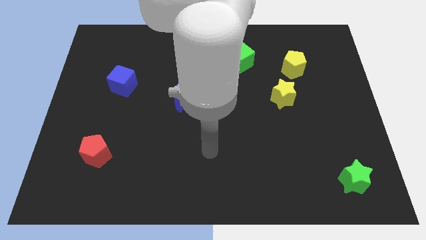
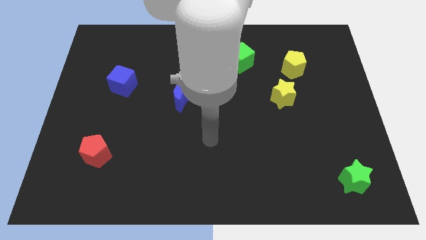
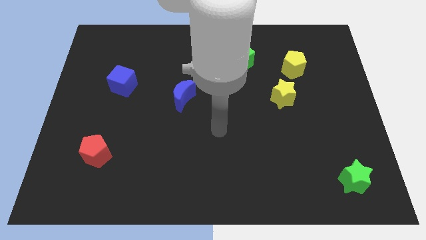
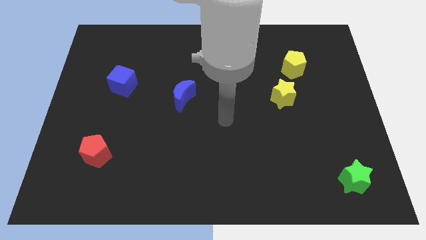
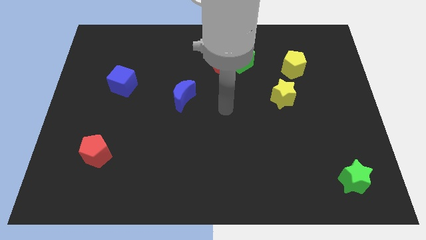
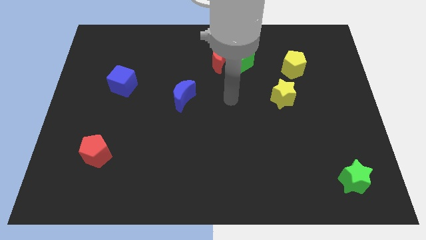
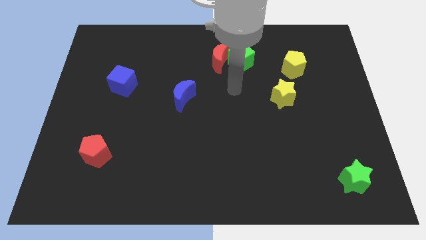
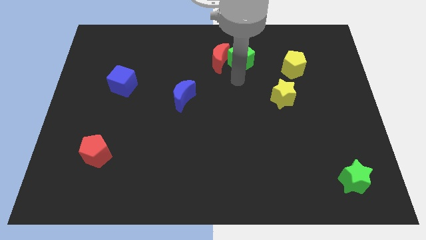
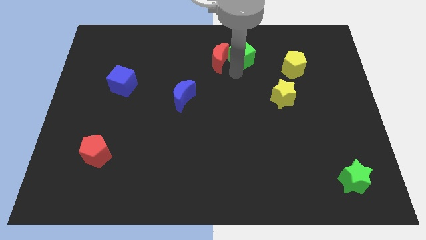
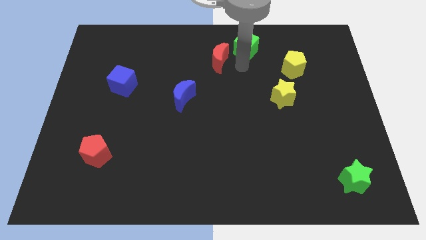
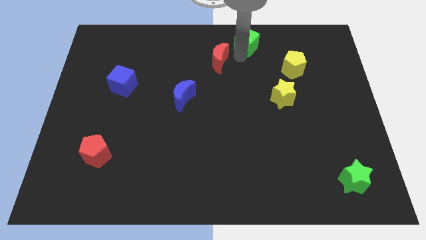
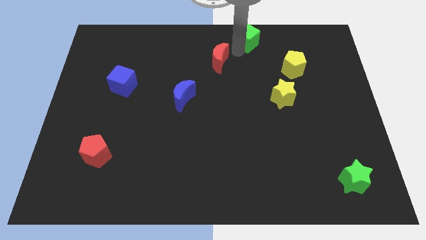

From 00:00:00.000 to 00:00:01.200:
pull the red moon apart from the green cube

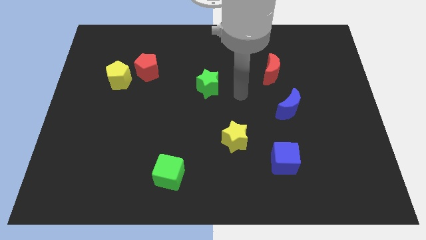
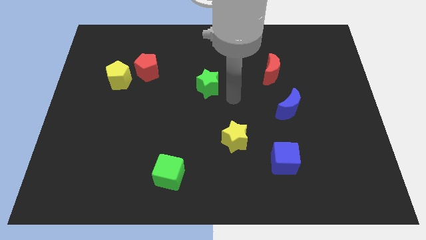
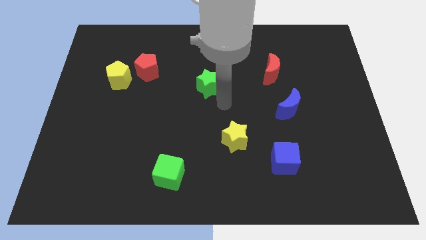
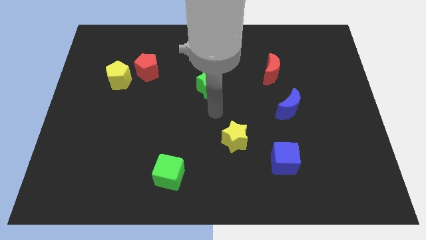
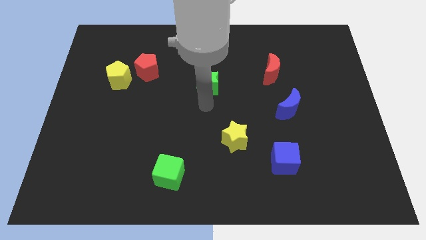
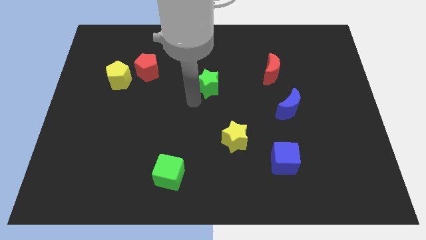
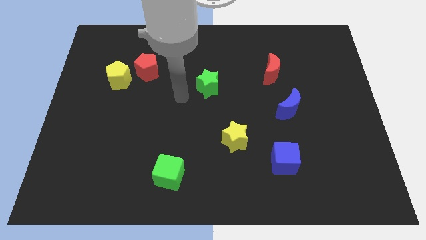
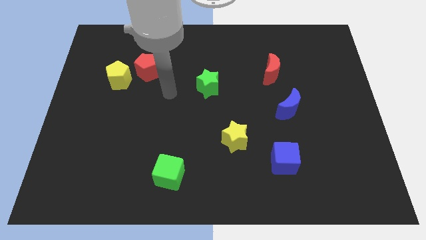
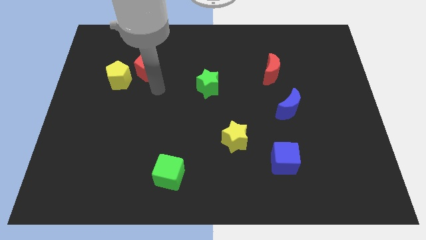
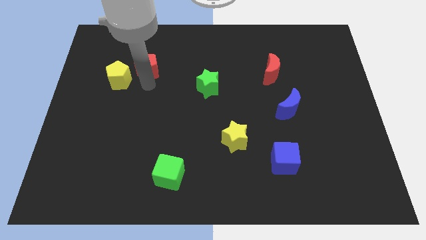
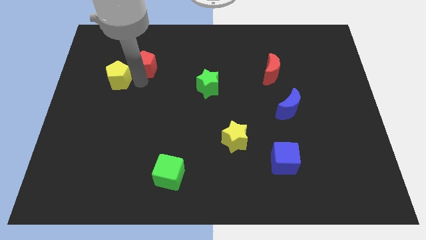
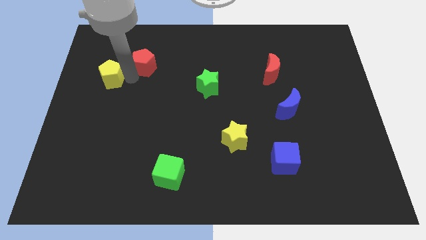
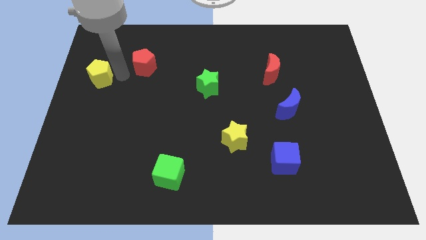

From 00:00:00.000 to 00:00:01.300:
move the red pentagon away from the yellow pentagon

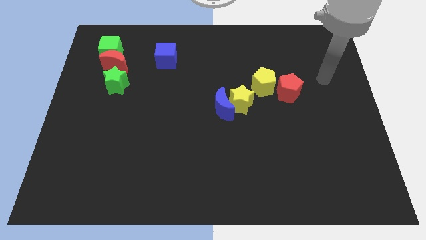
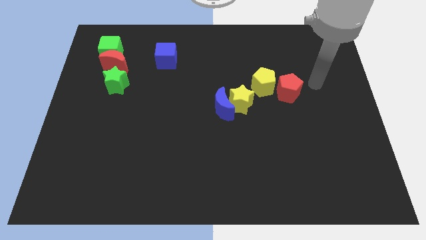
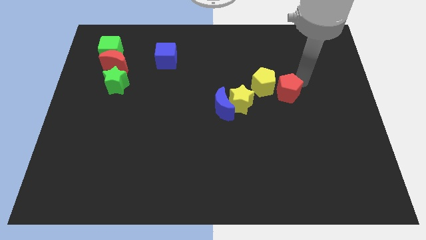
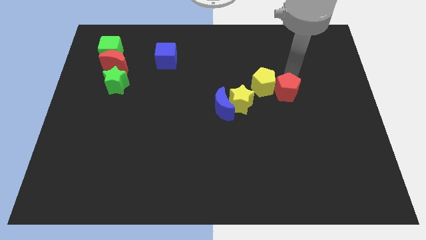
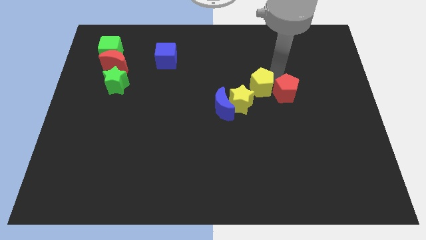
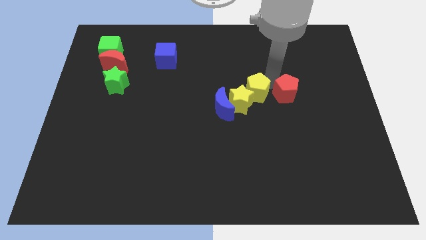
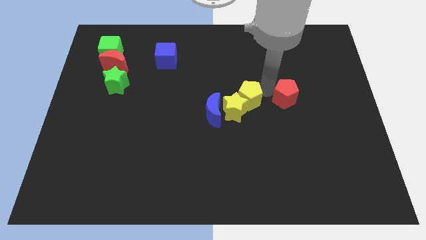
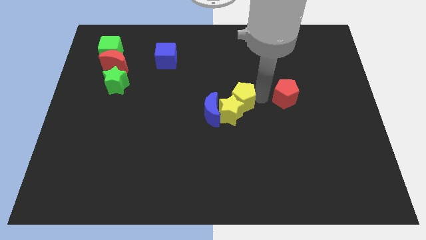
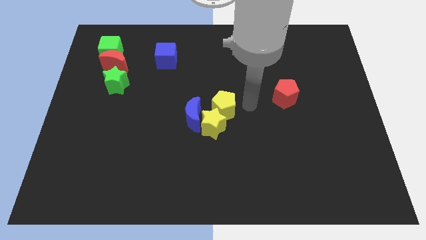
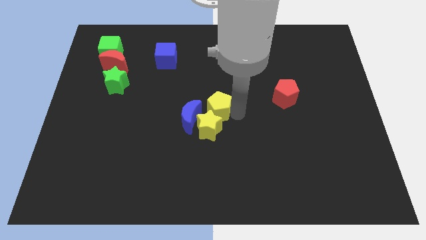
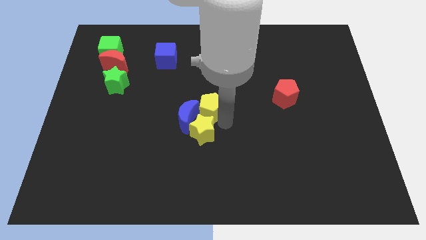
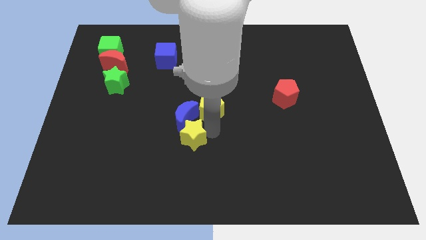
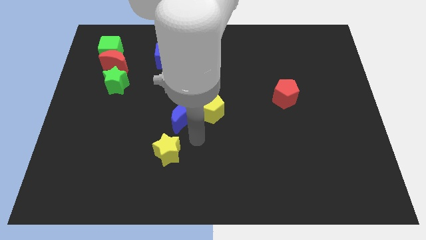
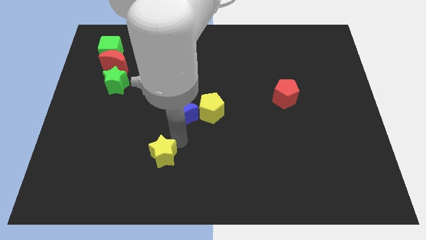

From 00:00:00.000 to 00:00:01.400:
pull the blue moon apart from the yellow star

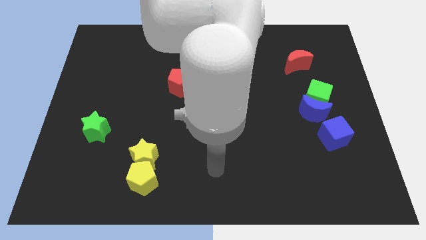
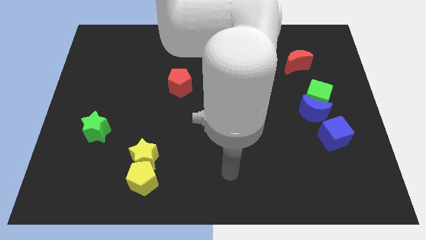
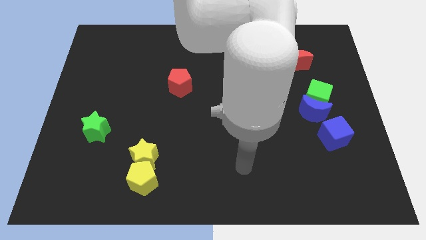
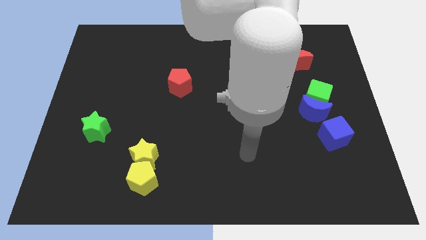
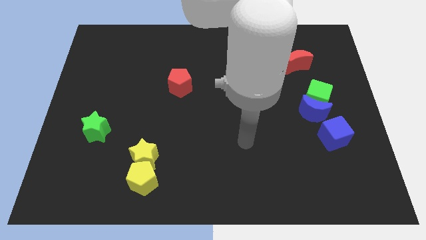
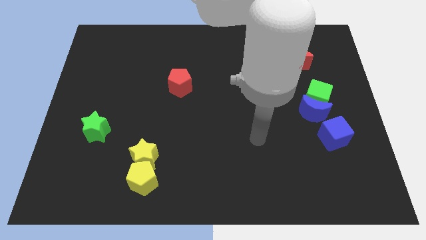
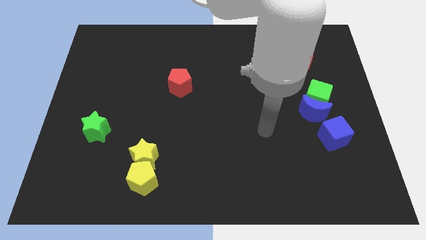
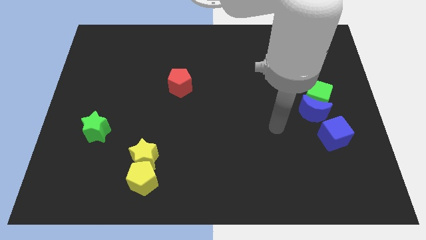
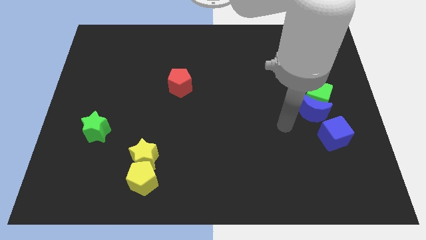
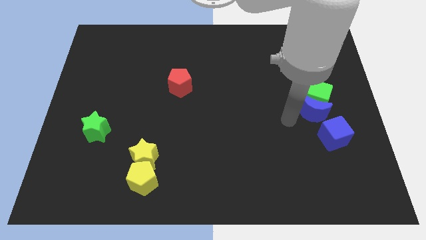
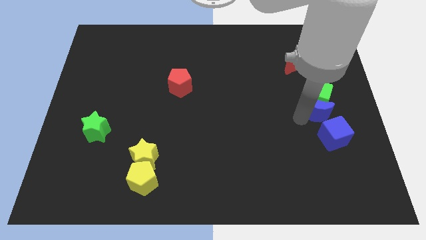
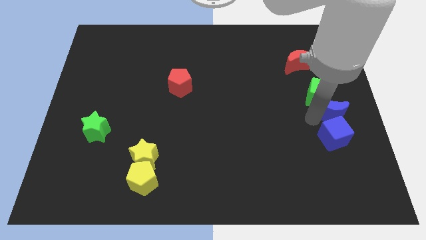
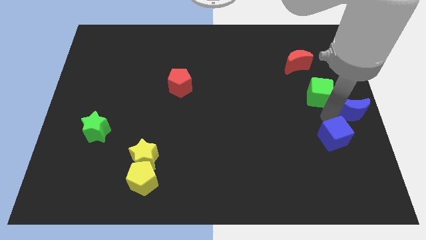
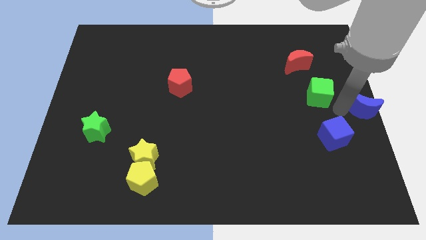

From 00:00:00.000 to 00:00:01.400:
separate the green cube from the blue moon

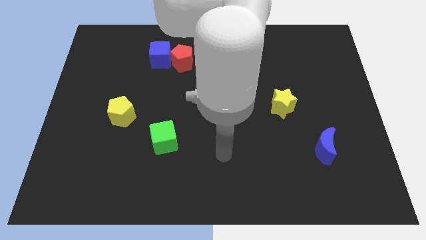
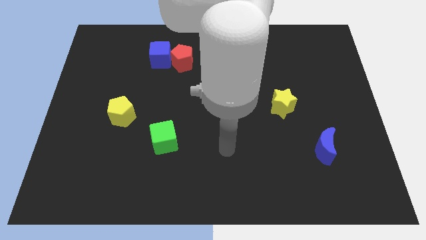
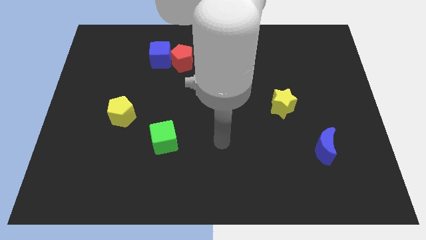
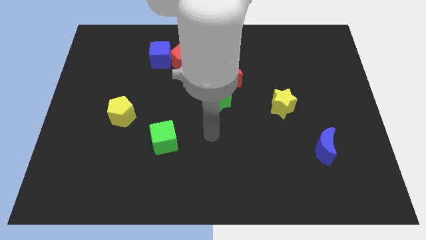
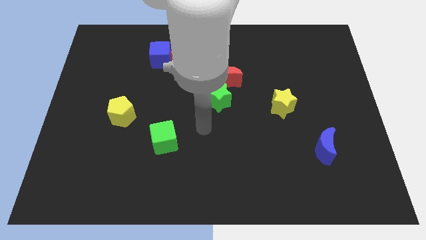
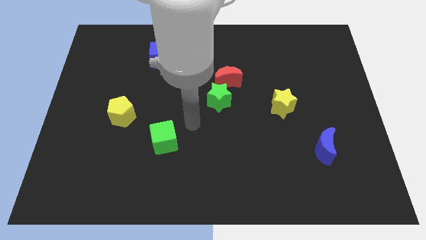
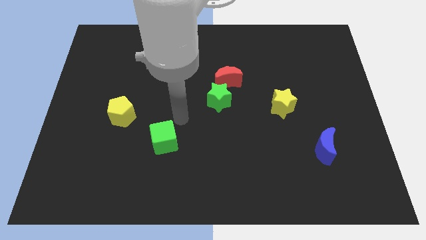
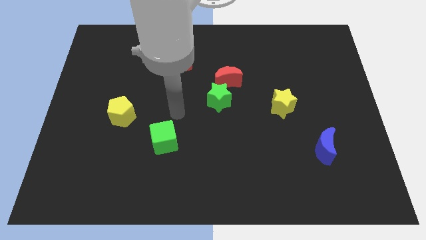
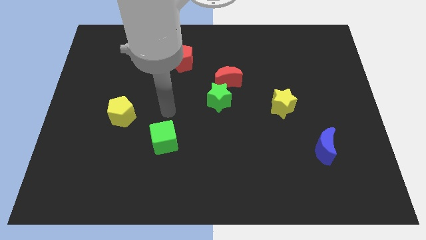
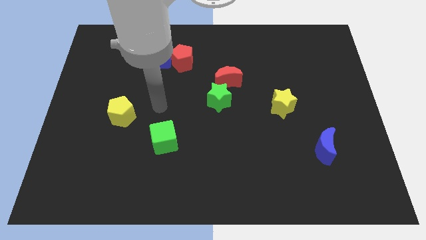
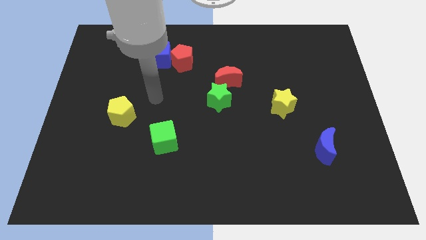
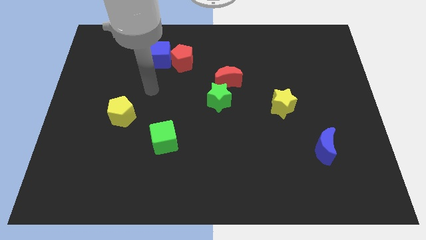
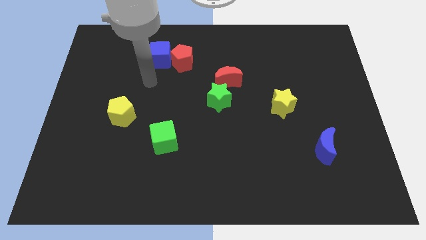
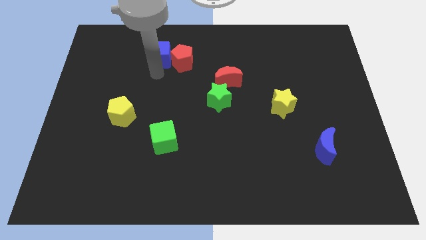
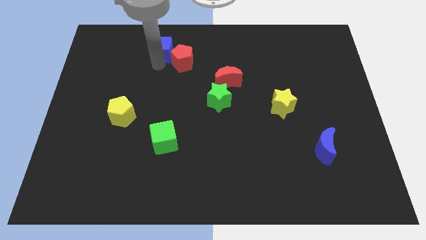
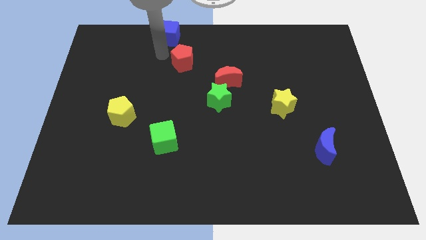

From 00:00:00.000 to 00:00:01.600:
pull the red pentagon apart from the blue cube

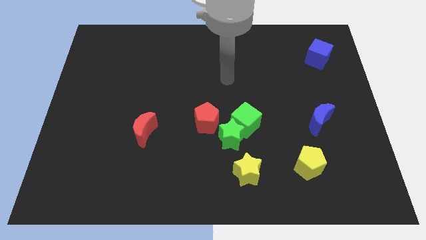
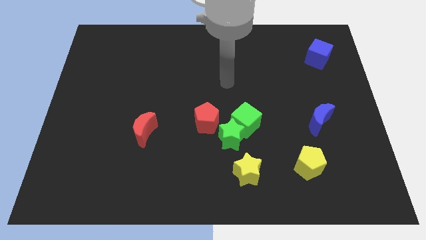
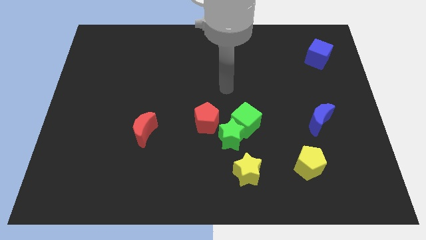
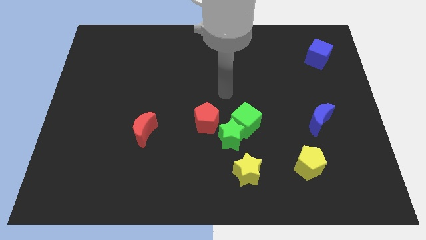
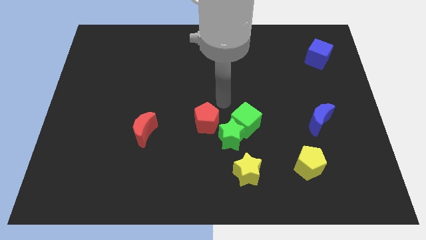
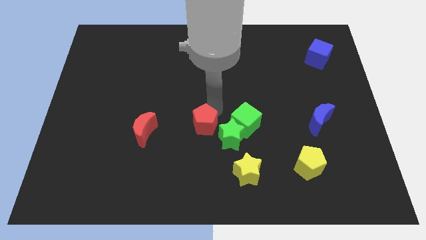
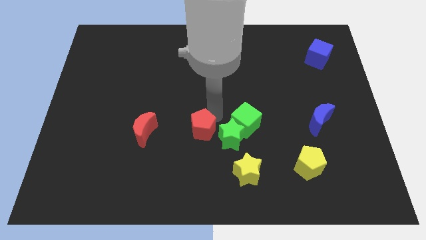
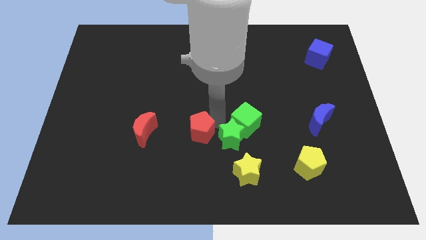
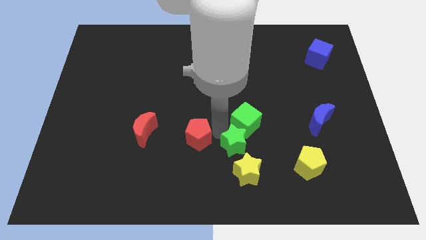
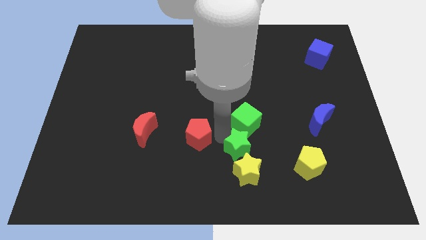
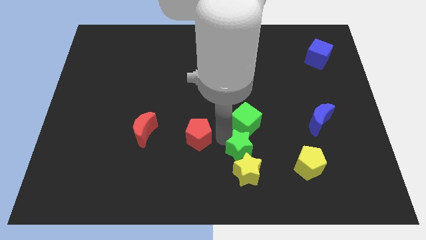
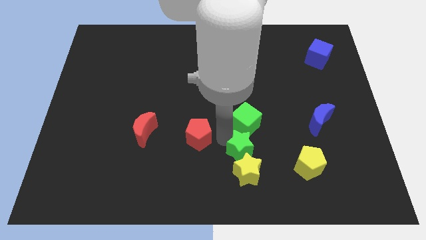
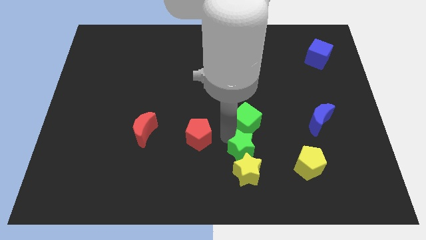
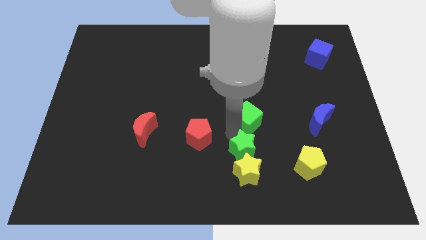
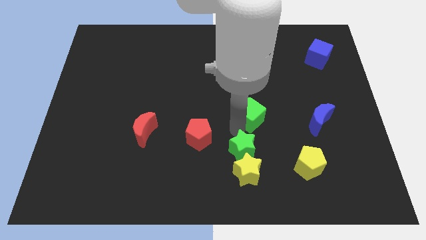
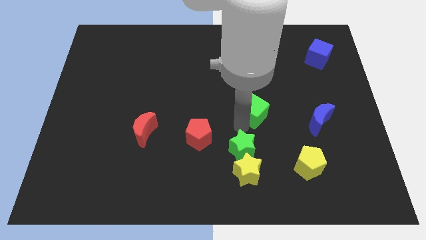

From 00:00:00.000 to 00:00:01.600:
pull the green cube apart from the green star and red pentagon

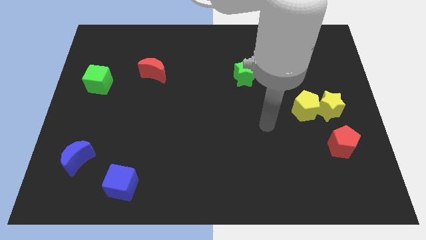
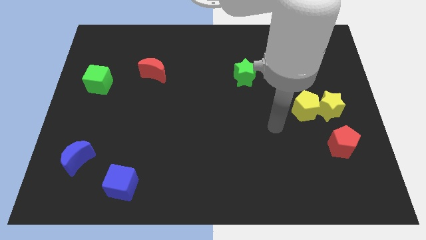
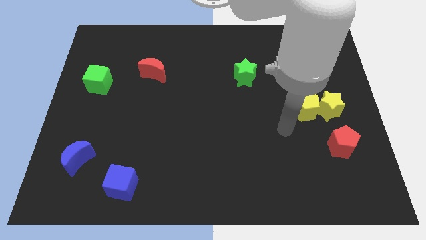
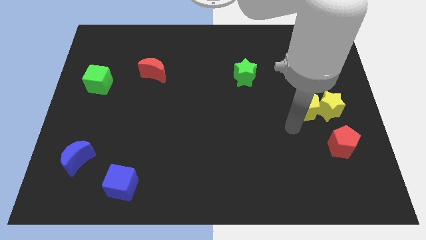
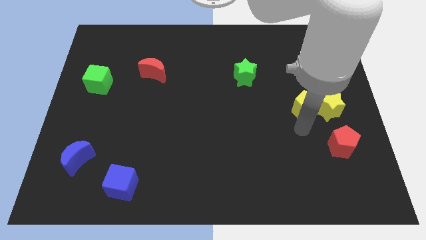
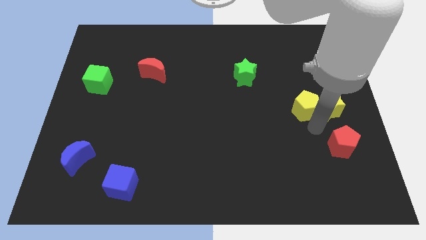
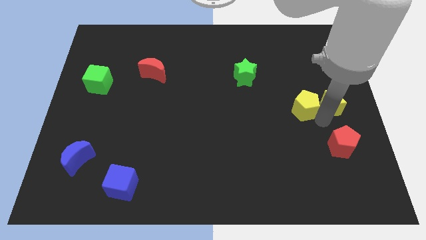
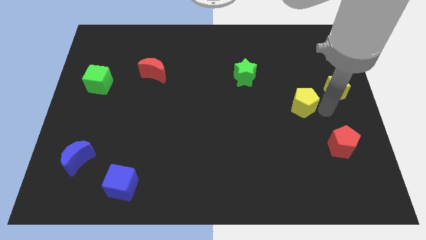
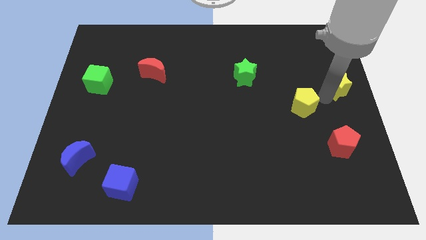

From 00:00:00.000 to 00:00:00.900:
separate the yellow pentagon from the yellow star

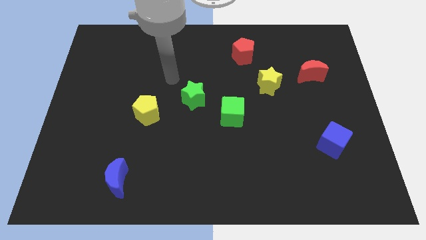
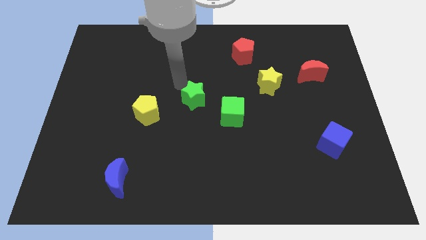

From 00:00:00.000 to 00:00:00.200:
move the green cube away from the green star
